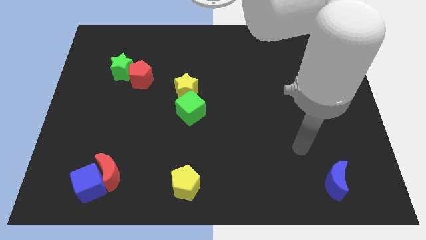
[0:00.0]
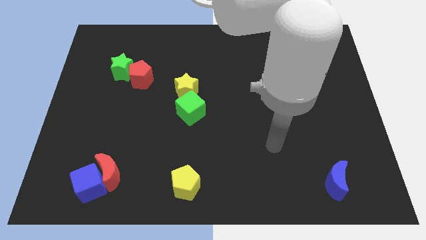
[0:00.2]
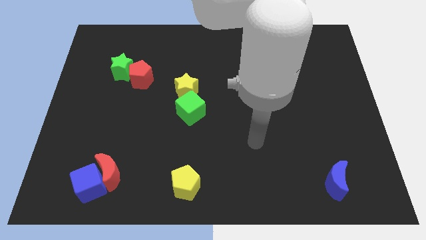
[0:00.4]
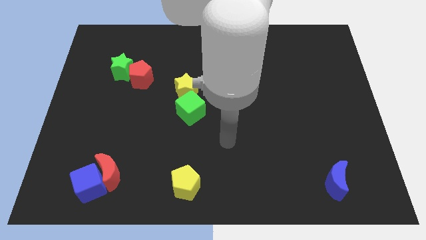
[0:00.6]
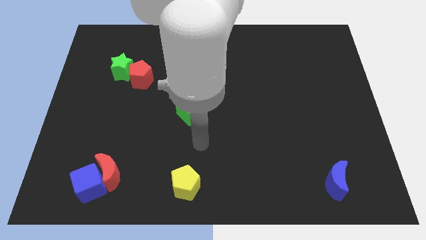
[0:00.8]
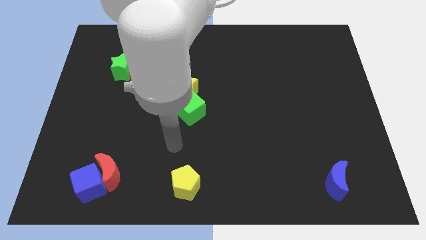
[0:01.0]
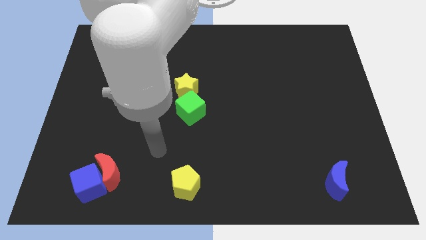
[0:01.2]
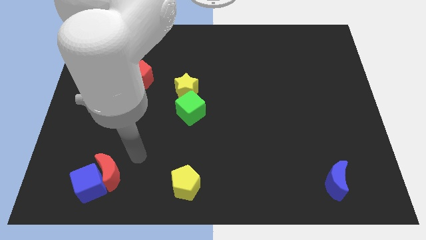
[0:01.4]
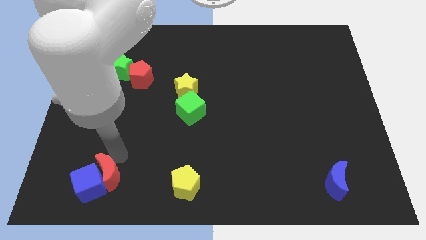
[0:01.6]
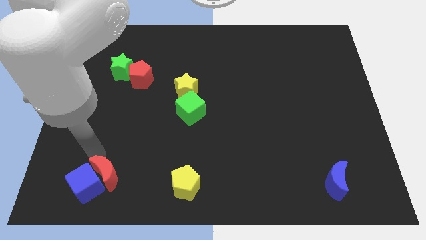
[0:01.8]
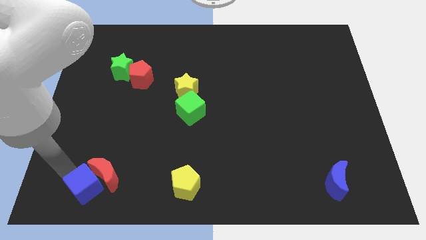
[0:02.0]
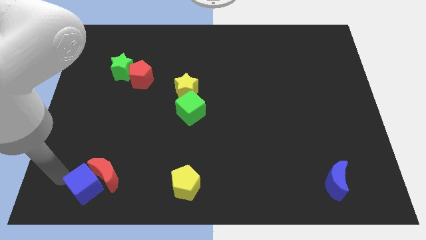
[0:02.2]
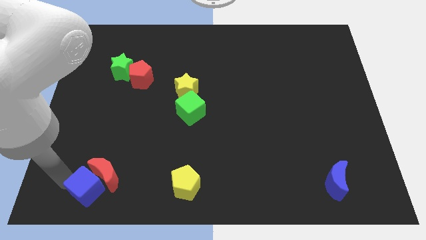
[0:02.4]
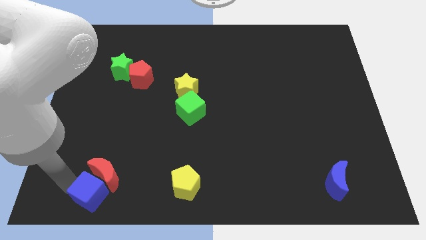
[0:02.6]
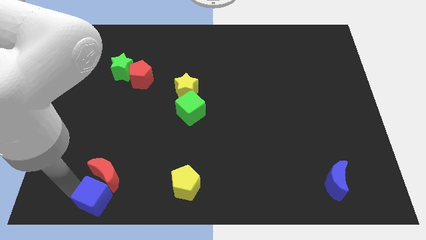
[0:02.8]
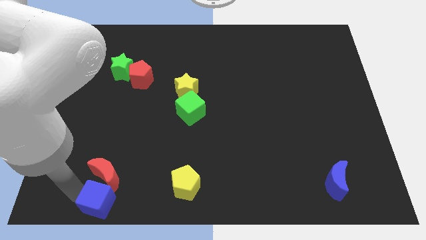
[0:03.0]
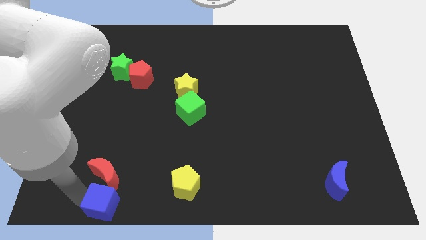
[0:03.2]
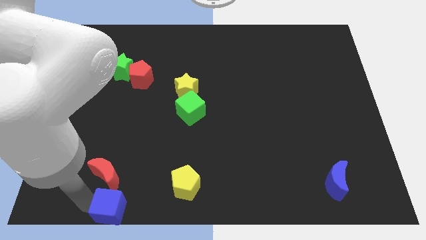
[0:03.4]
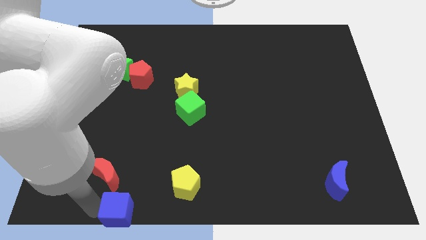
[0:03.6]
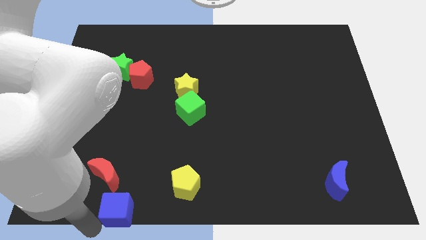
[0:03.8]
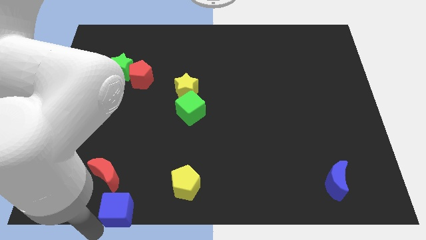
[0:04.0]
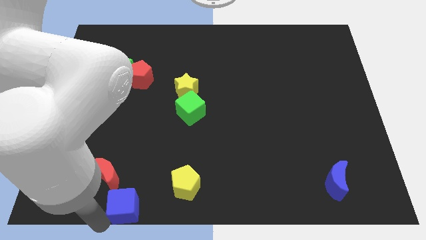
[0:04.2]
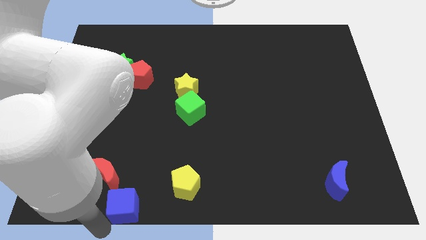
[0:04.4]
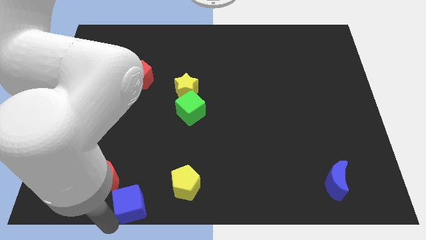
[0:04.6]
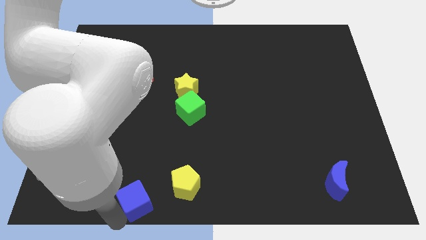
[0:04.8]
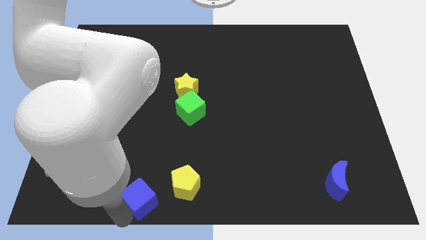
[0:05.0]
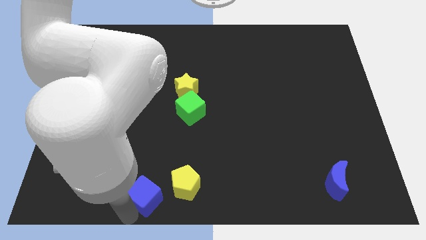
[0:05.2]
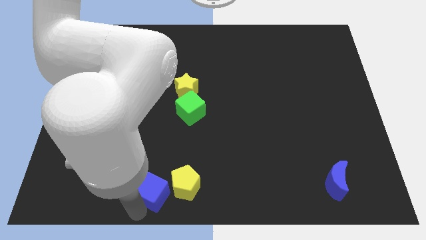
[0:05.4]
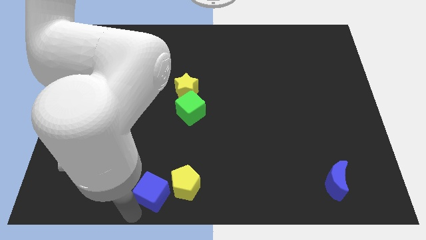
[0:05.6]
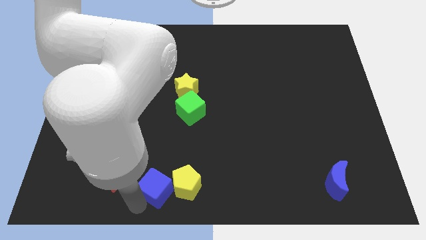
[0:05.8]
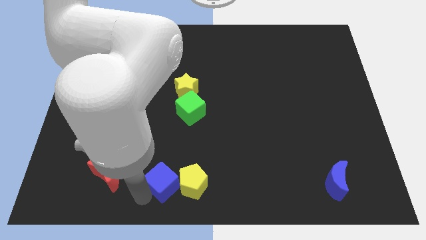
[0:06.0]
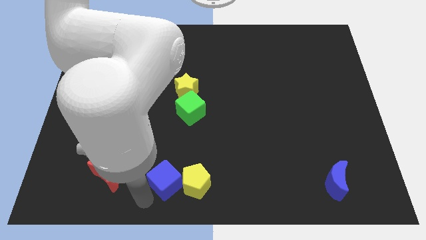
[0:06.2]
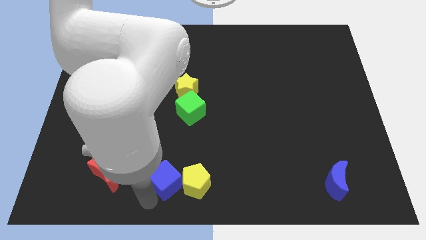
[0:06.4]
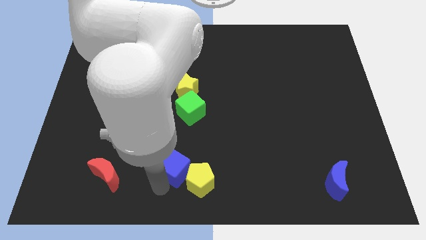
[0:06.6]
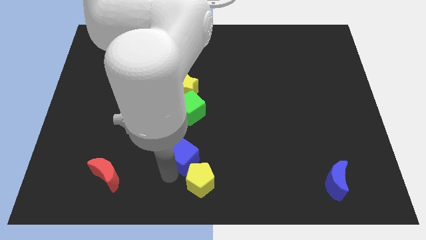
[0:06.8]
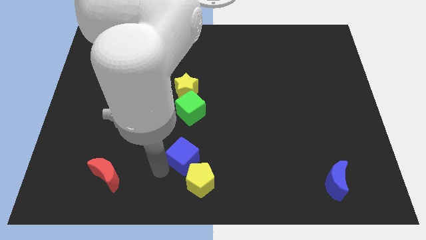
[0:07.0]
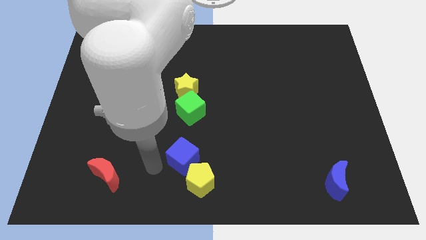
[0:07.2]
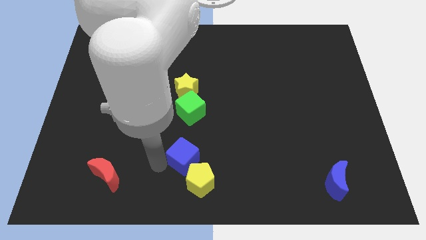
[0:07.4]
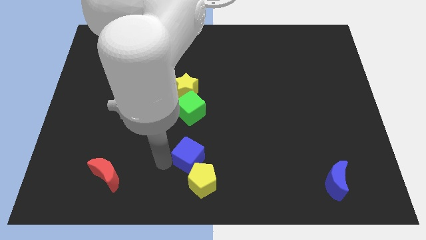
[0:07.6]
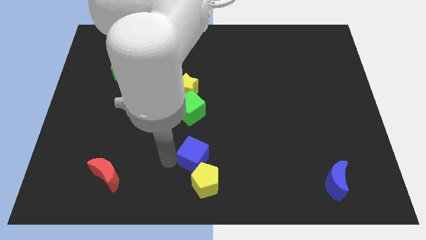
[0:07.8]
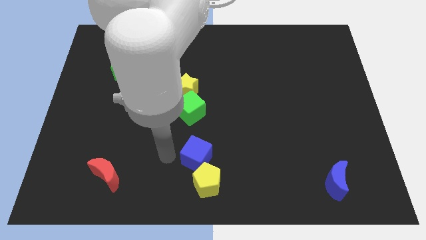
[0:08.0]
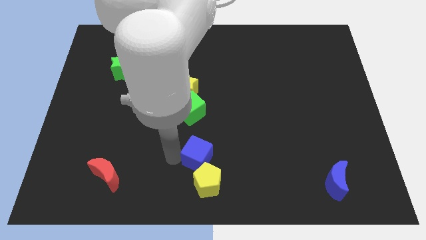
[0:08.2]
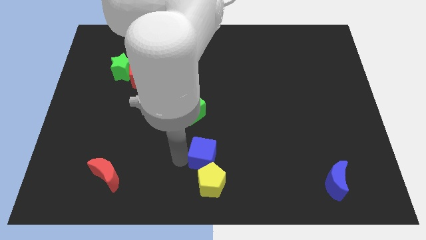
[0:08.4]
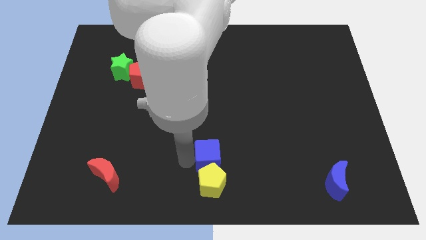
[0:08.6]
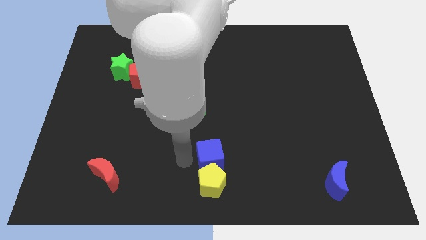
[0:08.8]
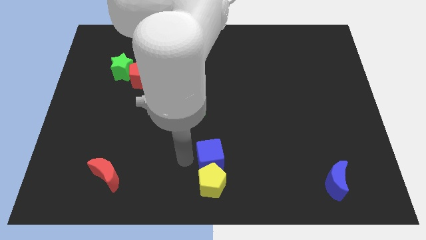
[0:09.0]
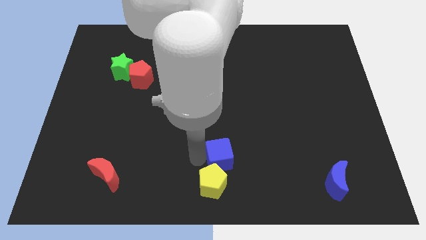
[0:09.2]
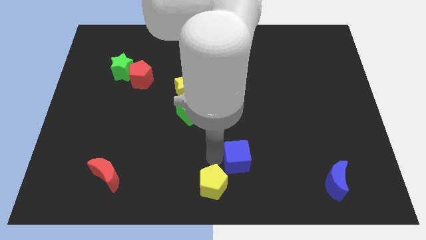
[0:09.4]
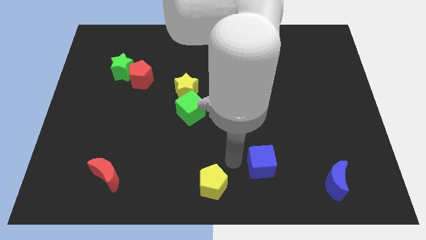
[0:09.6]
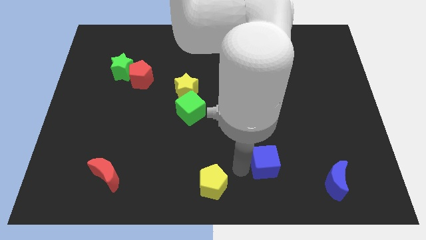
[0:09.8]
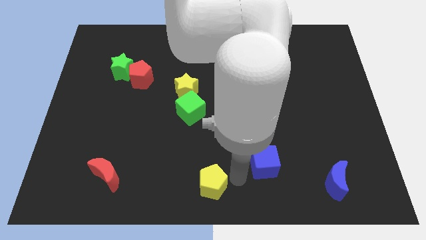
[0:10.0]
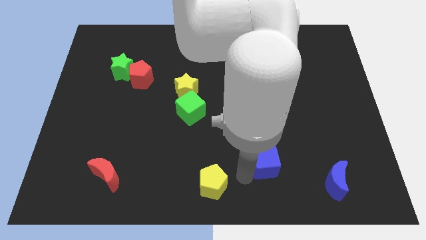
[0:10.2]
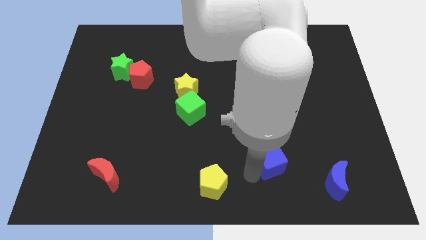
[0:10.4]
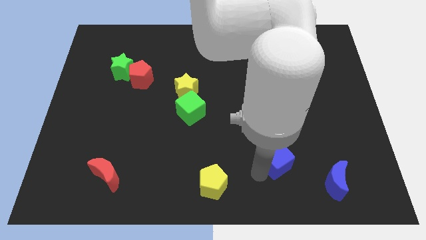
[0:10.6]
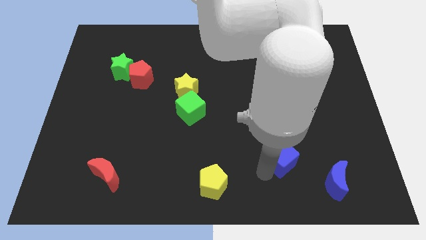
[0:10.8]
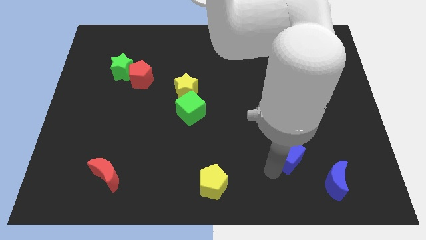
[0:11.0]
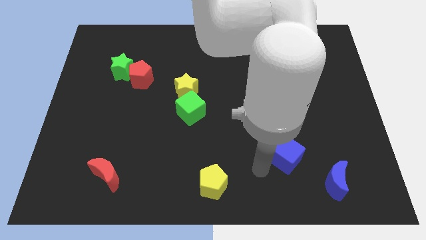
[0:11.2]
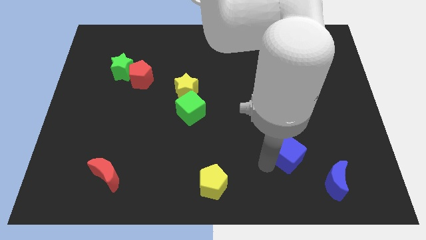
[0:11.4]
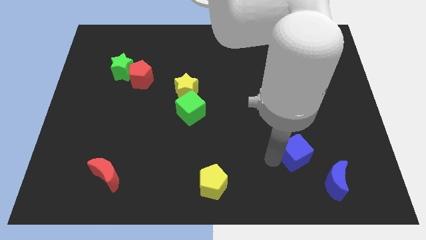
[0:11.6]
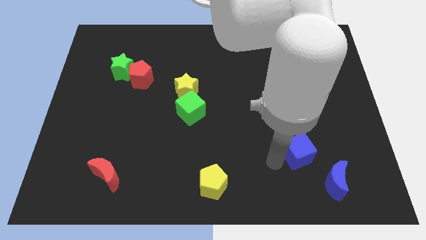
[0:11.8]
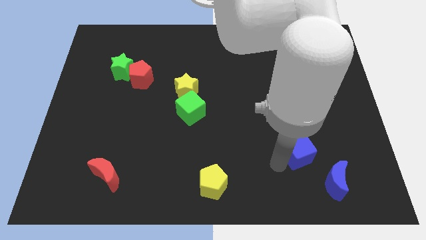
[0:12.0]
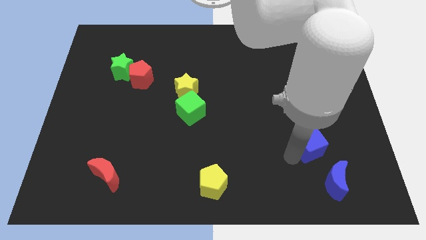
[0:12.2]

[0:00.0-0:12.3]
move the blue cube to the top of the blue moon
